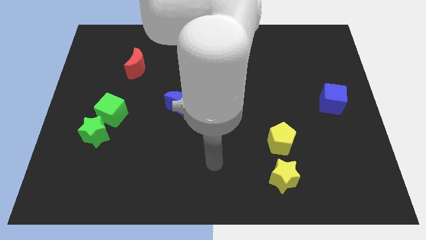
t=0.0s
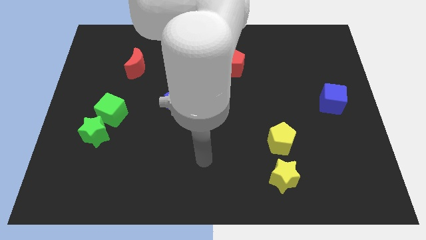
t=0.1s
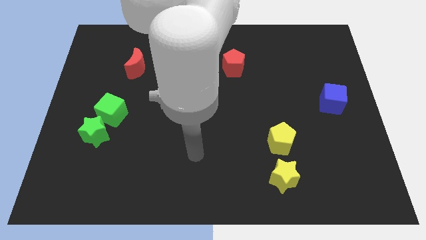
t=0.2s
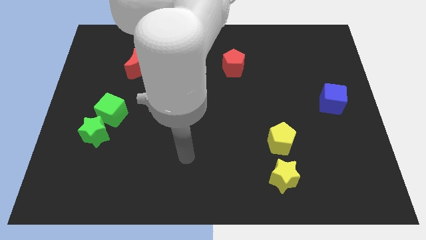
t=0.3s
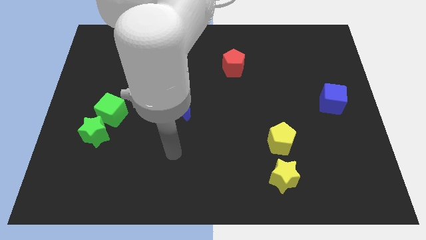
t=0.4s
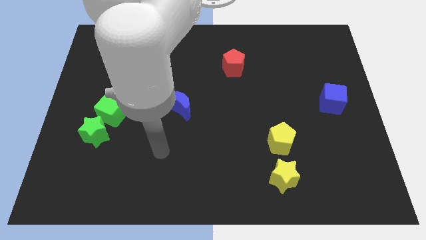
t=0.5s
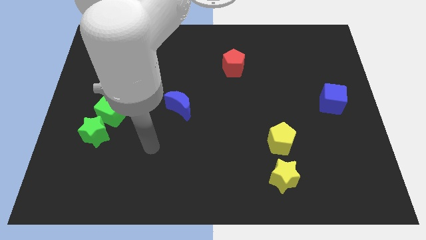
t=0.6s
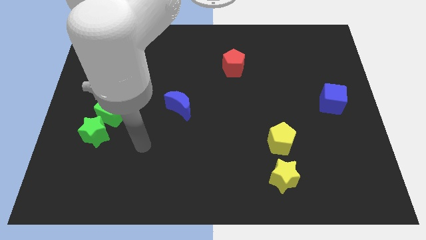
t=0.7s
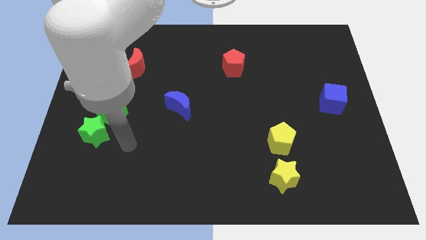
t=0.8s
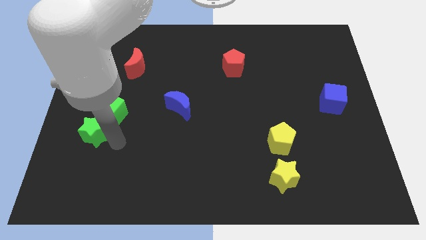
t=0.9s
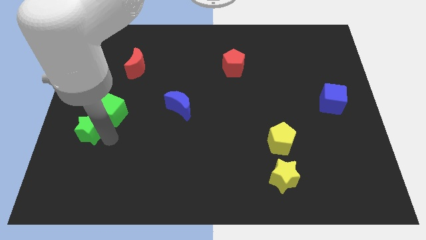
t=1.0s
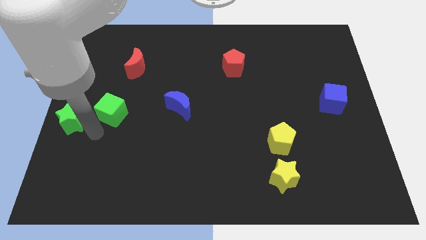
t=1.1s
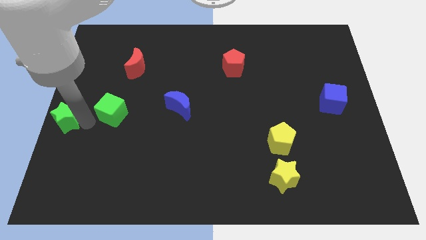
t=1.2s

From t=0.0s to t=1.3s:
separate the green cube from the green star

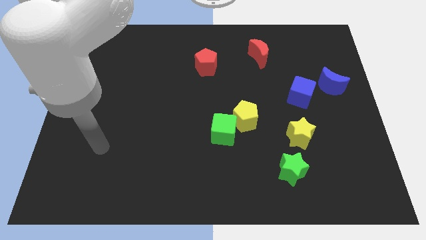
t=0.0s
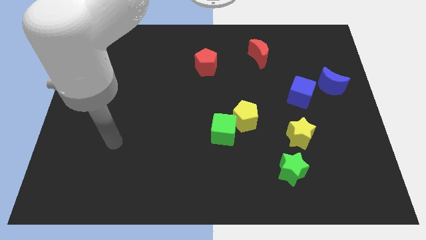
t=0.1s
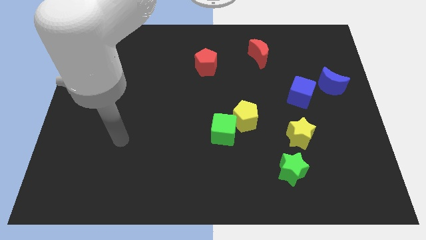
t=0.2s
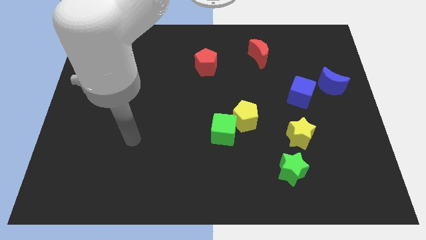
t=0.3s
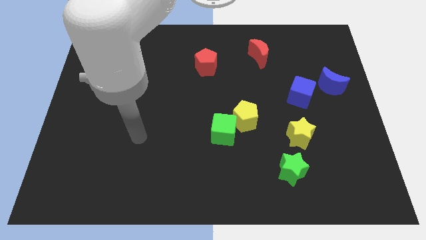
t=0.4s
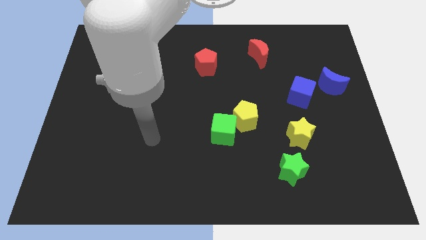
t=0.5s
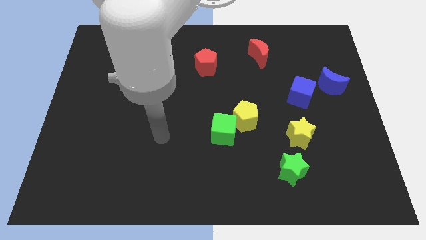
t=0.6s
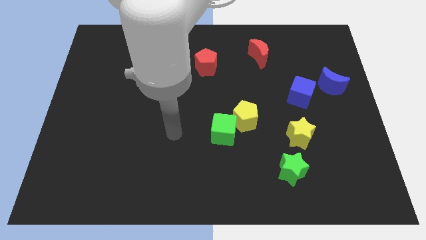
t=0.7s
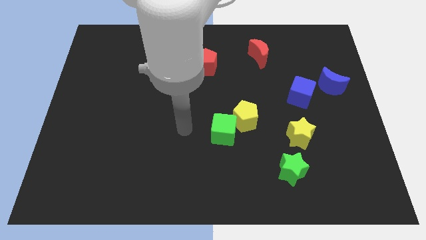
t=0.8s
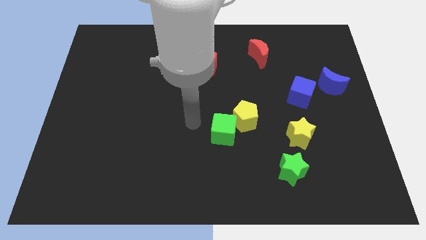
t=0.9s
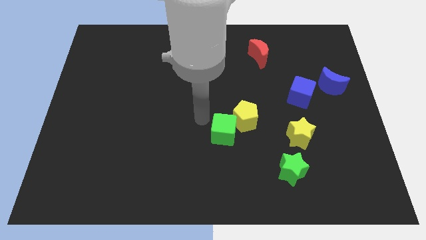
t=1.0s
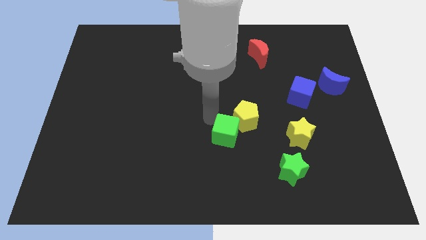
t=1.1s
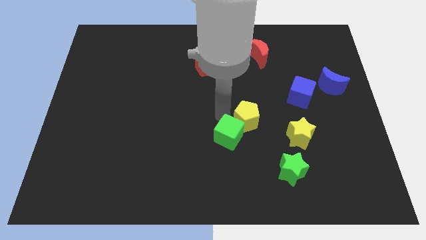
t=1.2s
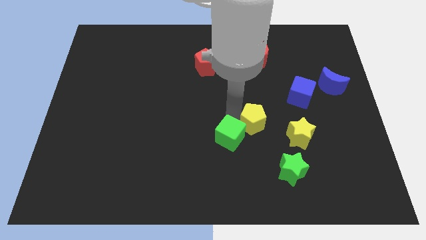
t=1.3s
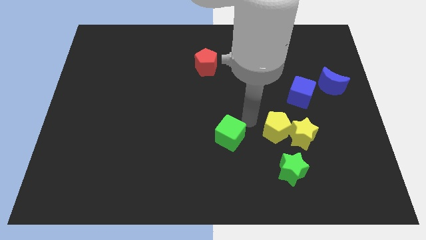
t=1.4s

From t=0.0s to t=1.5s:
pull the green cube apart from the yellow pentagon

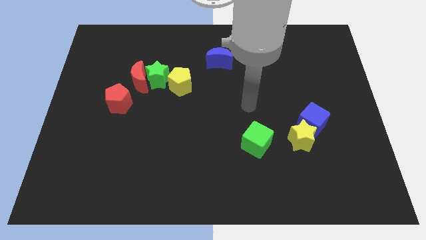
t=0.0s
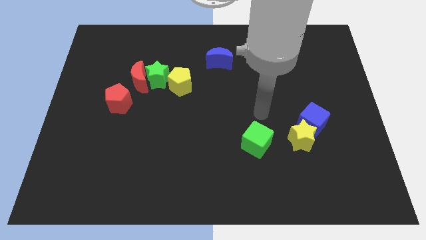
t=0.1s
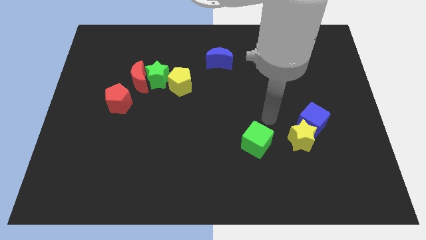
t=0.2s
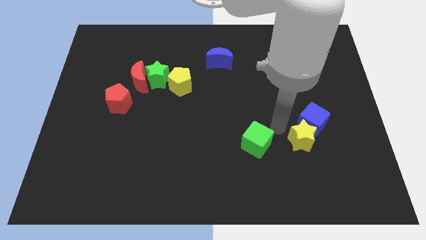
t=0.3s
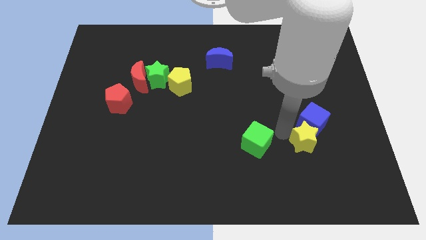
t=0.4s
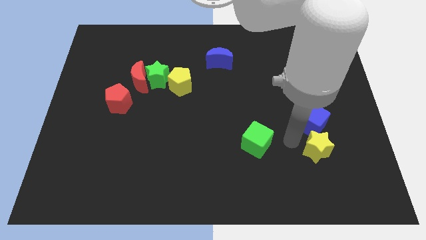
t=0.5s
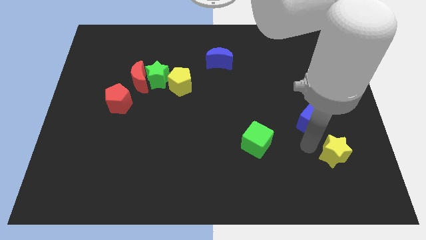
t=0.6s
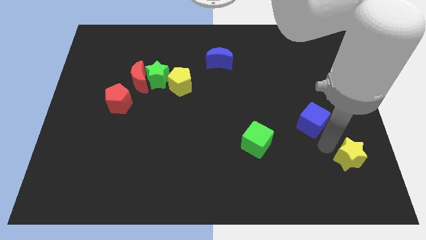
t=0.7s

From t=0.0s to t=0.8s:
move the blue cube away from the yellow star

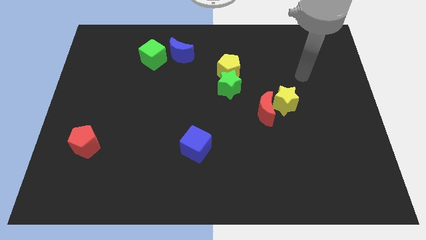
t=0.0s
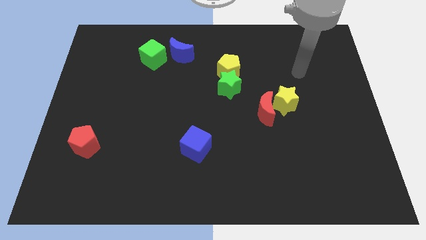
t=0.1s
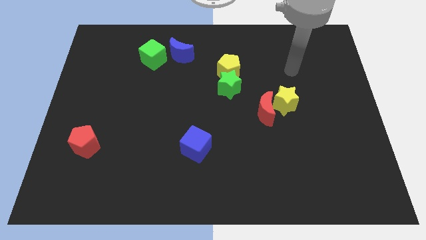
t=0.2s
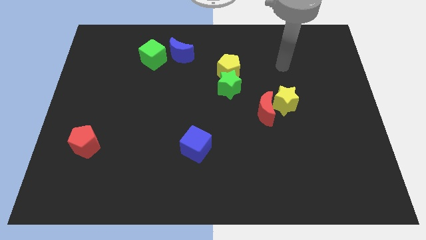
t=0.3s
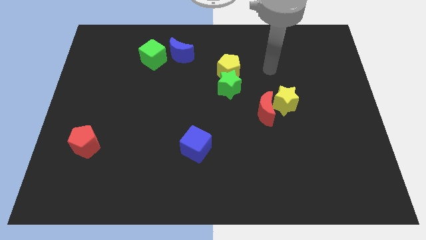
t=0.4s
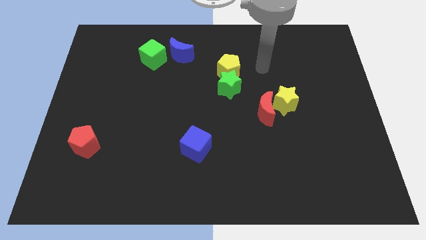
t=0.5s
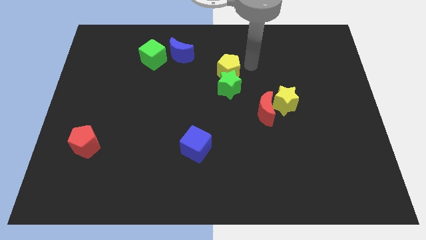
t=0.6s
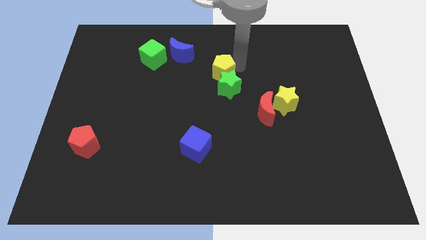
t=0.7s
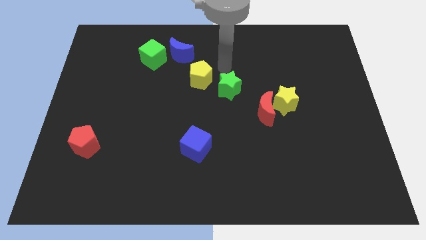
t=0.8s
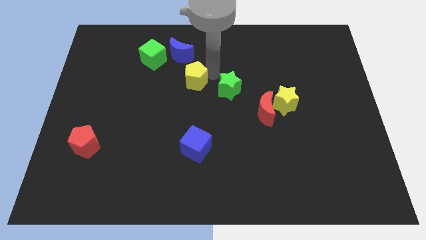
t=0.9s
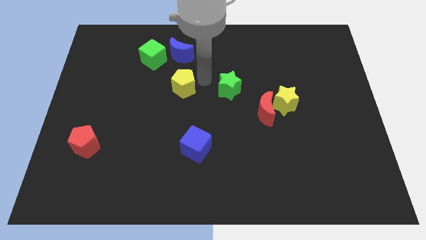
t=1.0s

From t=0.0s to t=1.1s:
separate the green star from the yellow pentagon

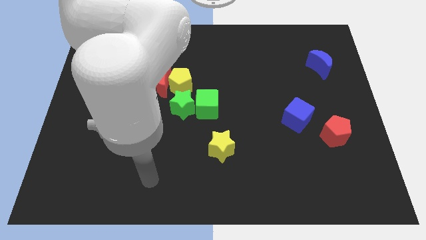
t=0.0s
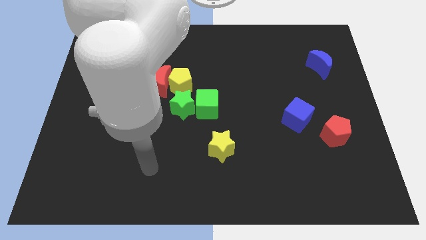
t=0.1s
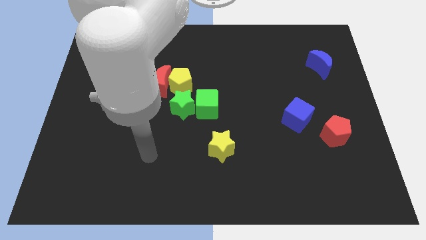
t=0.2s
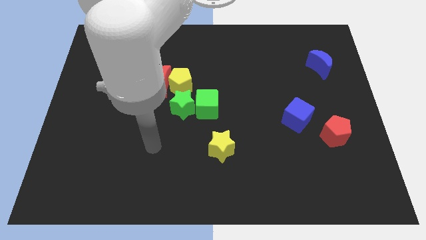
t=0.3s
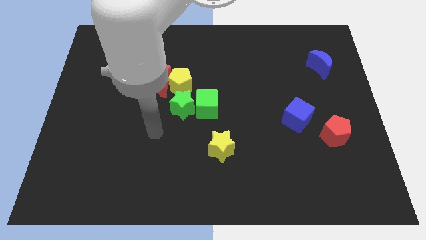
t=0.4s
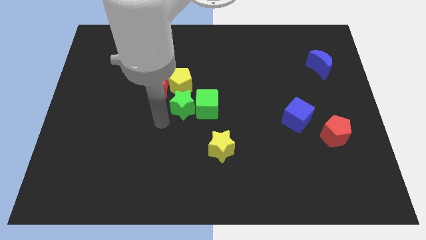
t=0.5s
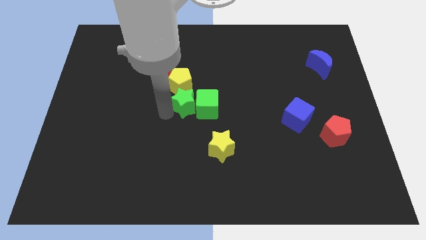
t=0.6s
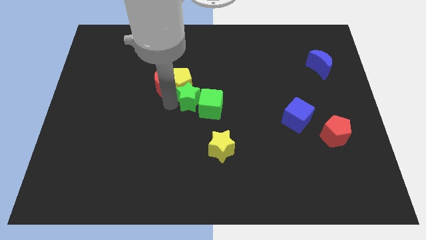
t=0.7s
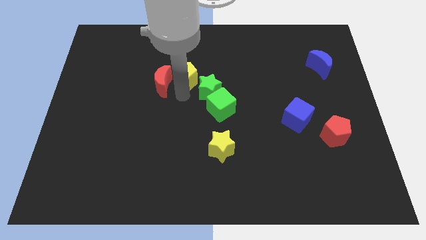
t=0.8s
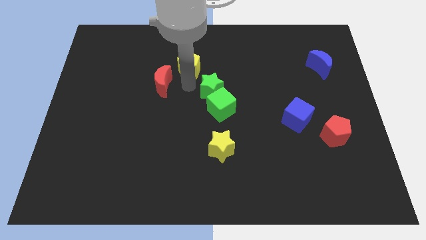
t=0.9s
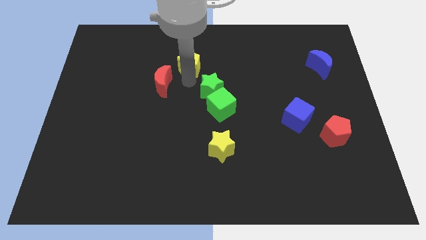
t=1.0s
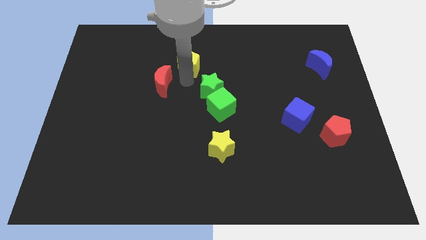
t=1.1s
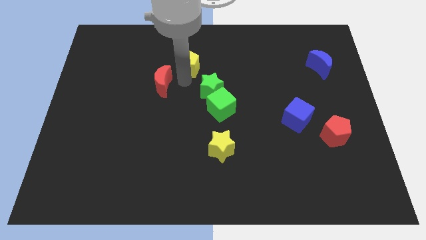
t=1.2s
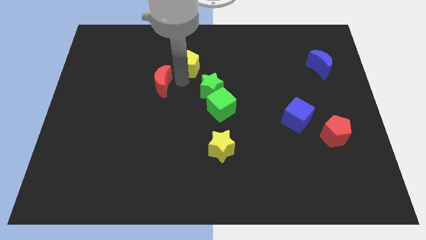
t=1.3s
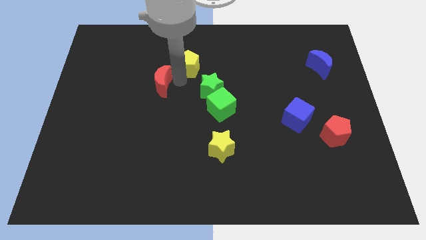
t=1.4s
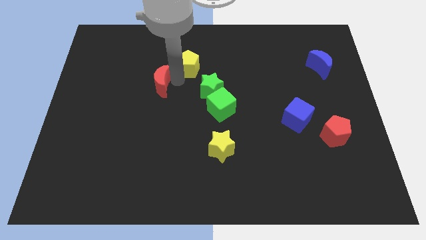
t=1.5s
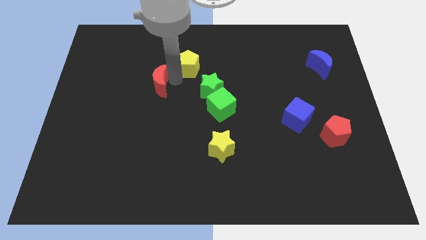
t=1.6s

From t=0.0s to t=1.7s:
move the red moon away from the yellow pentagon and green star

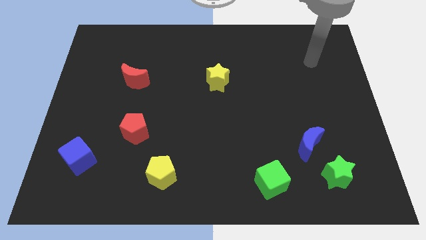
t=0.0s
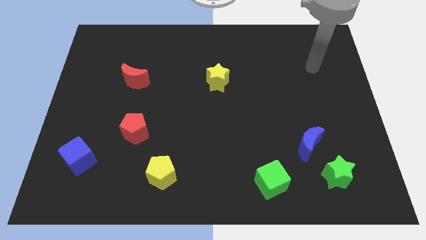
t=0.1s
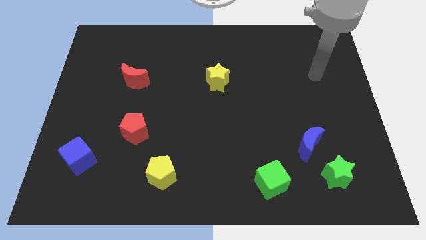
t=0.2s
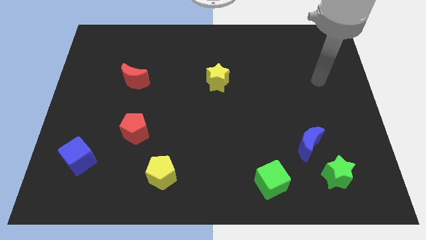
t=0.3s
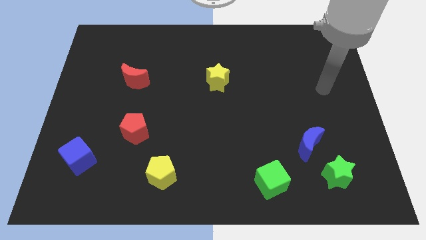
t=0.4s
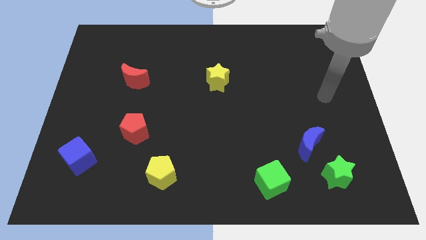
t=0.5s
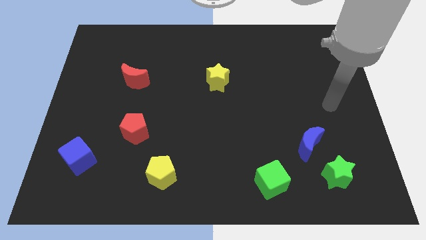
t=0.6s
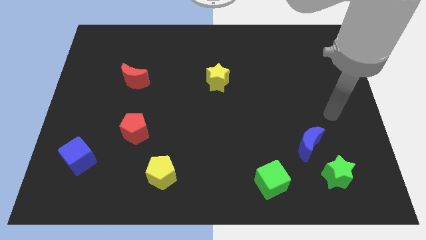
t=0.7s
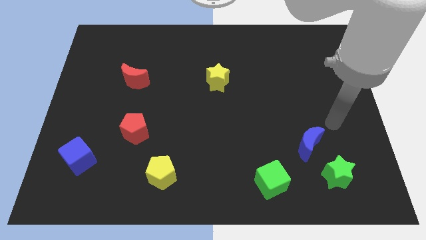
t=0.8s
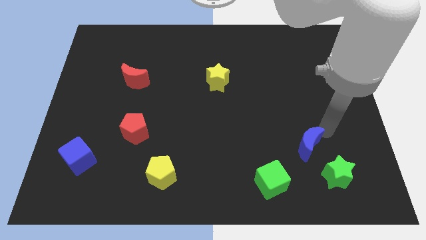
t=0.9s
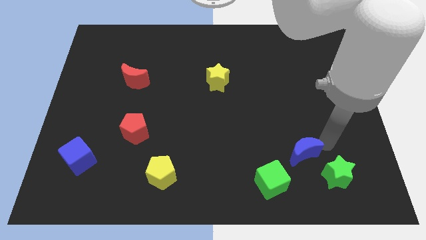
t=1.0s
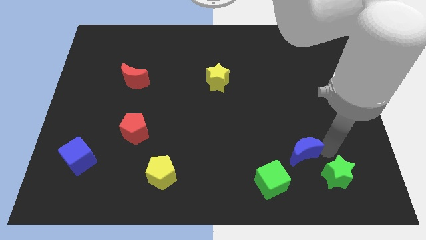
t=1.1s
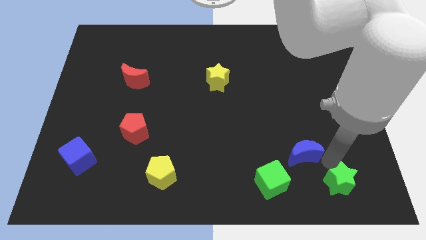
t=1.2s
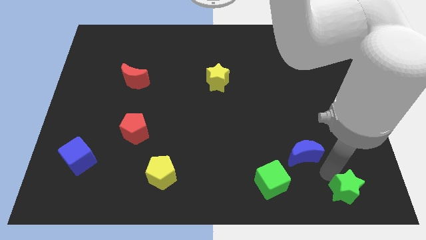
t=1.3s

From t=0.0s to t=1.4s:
move the blue moon away from the green star

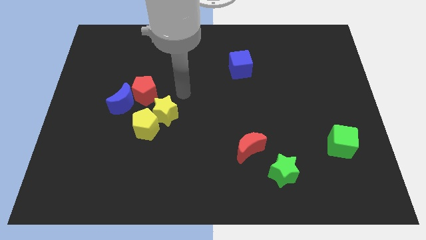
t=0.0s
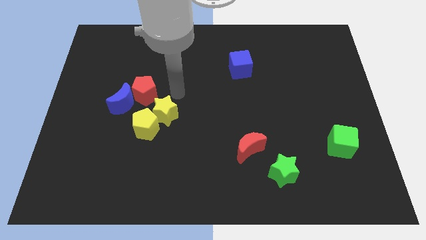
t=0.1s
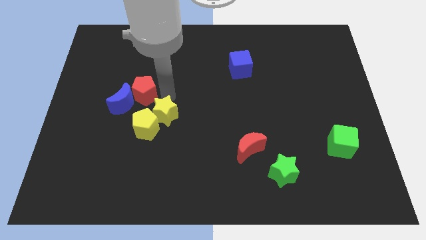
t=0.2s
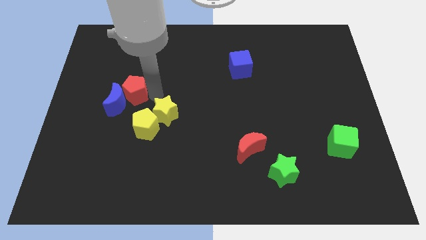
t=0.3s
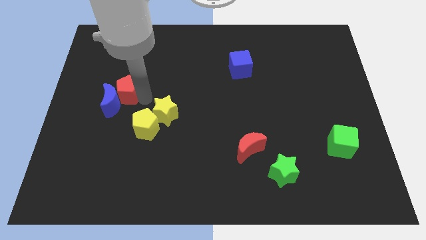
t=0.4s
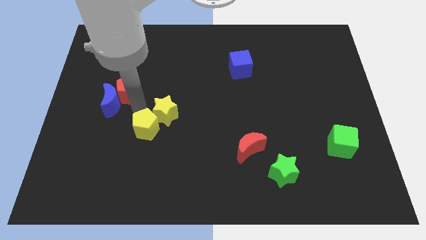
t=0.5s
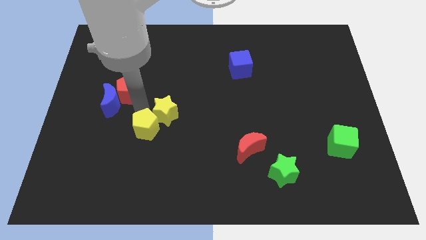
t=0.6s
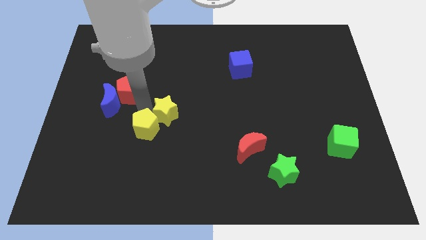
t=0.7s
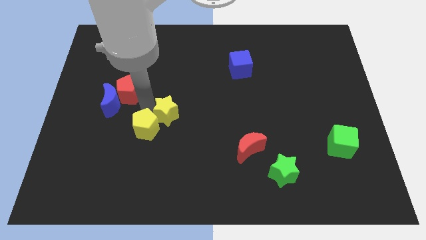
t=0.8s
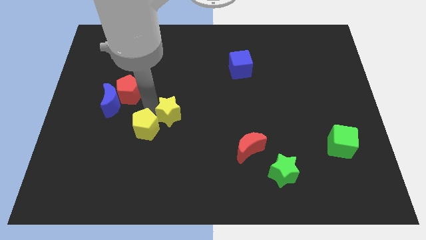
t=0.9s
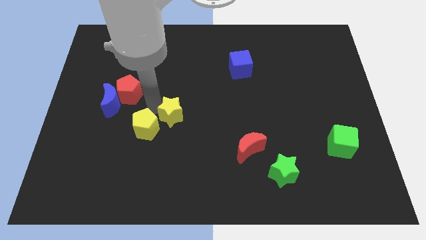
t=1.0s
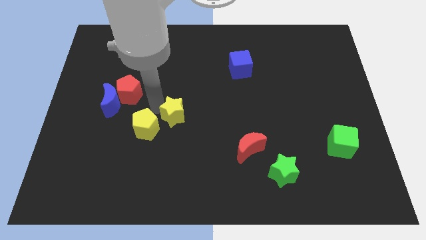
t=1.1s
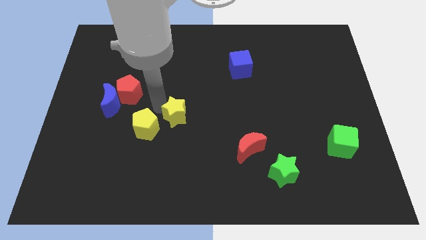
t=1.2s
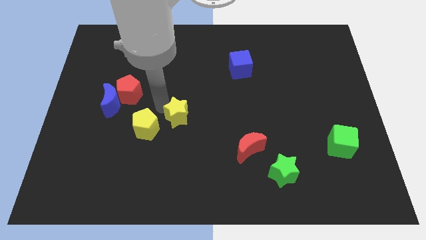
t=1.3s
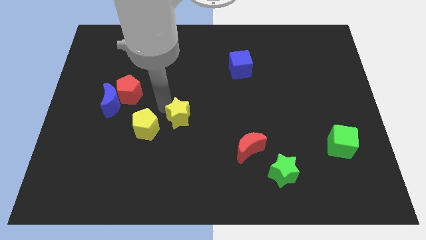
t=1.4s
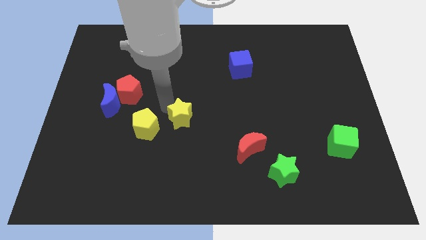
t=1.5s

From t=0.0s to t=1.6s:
move the yellow star away from the yellow pentagon and red pentagon
